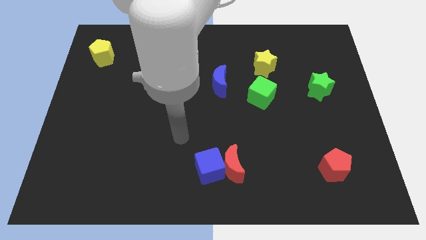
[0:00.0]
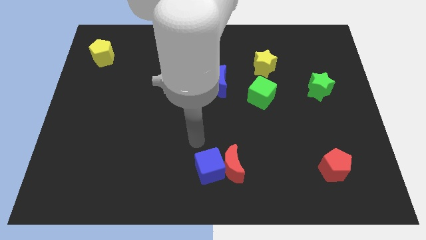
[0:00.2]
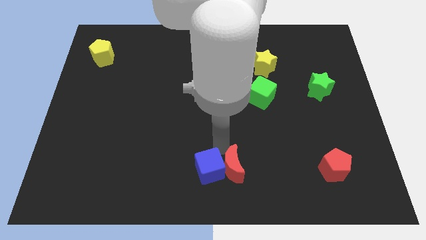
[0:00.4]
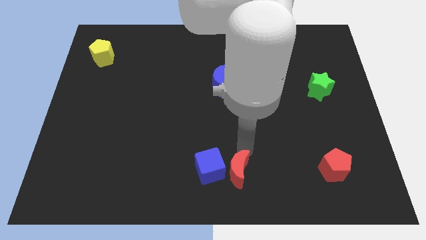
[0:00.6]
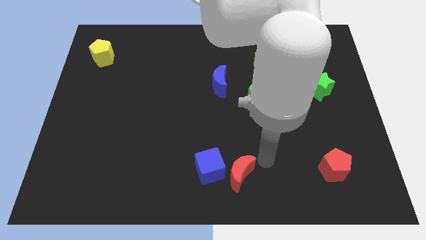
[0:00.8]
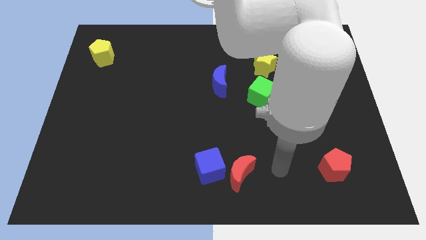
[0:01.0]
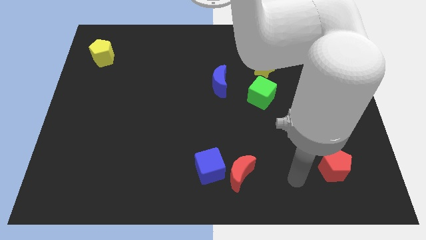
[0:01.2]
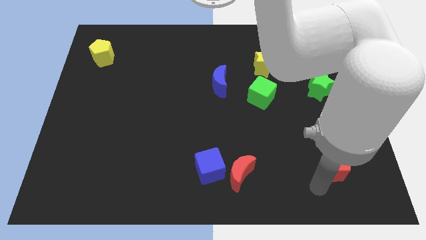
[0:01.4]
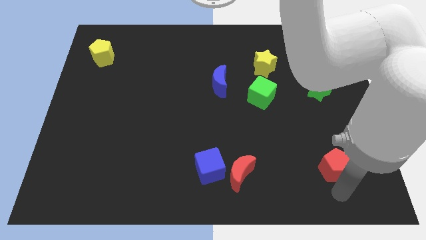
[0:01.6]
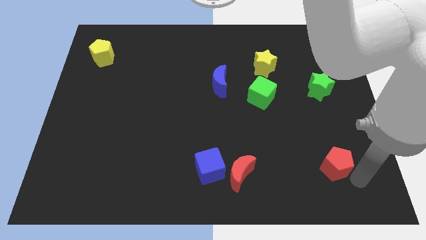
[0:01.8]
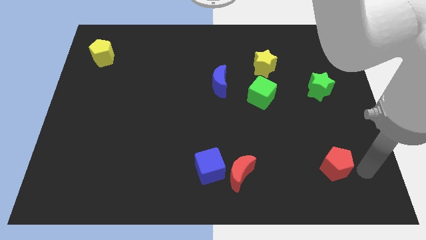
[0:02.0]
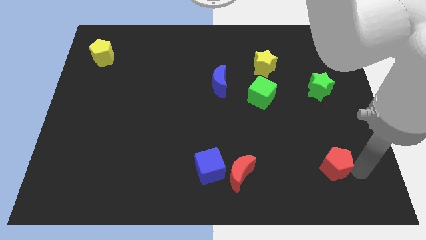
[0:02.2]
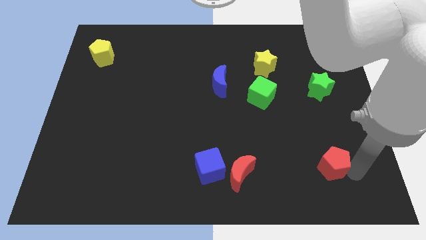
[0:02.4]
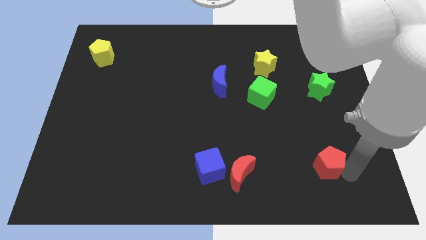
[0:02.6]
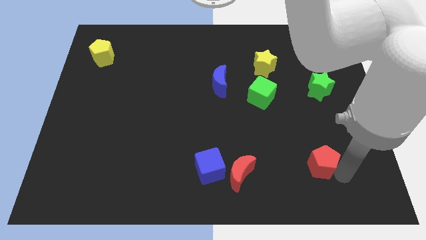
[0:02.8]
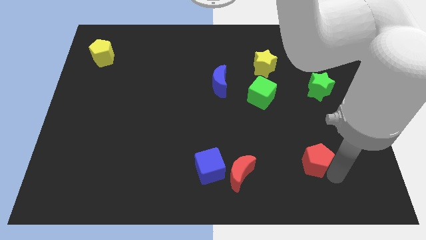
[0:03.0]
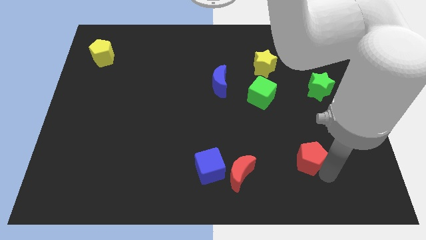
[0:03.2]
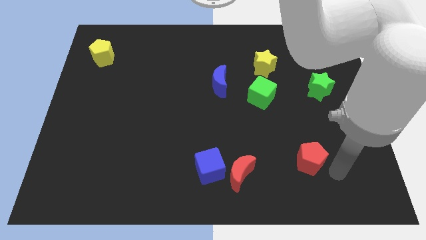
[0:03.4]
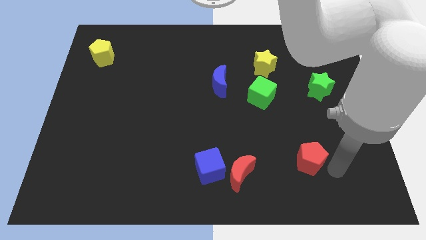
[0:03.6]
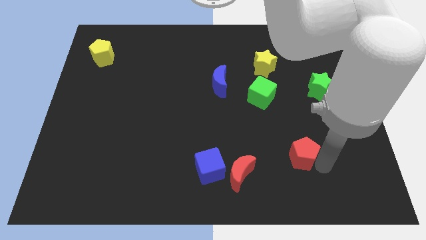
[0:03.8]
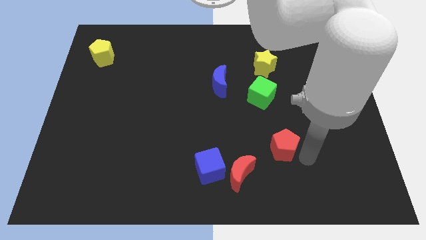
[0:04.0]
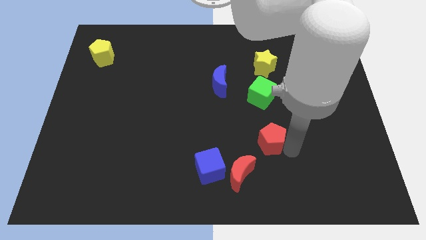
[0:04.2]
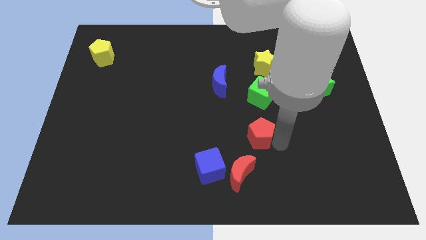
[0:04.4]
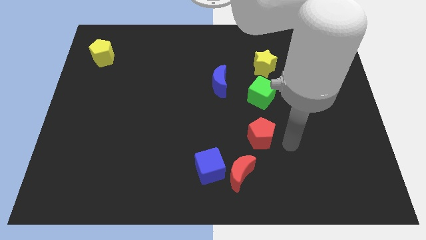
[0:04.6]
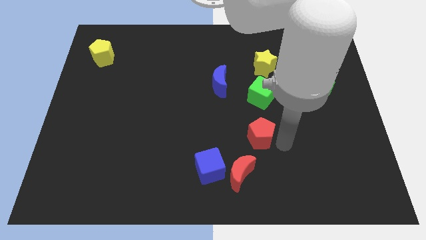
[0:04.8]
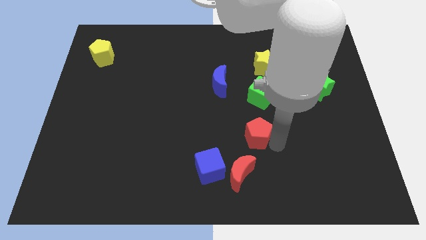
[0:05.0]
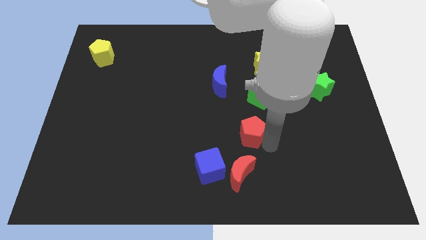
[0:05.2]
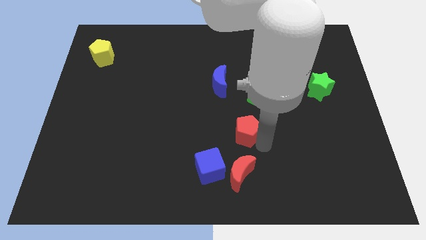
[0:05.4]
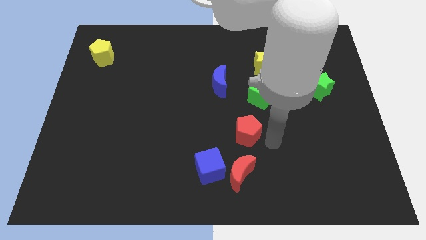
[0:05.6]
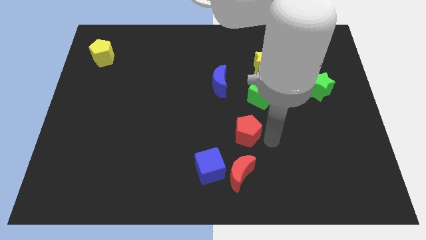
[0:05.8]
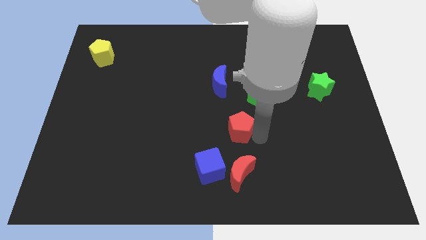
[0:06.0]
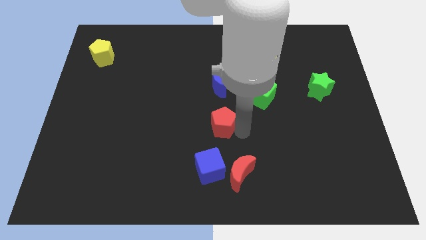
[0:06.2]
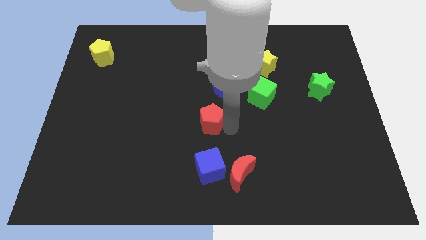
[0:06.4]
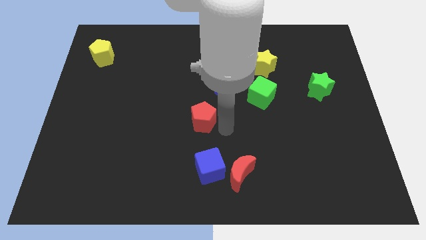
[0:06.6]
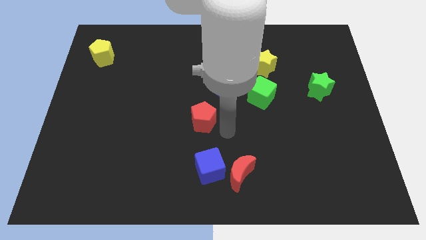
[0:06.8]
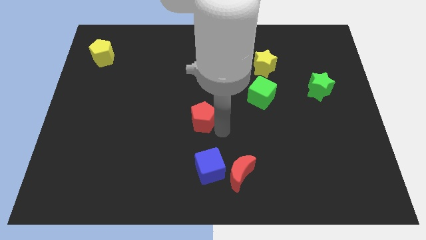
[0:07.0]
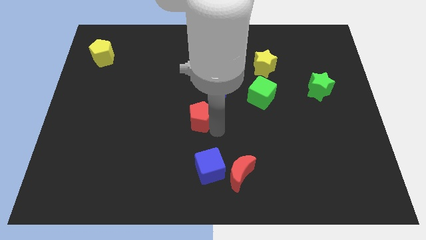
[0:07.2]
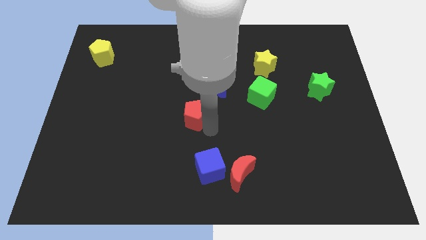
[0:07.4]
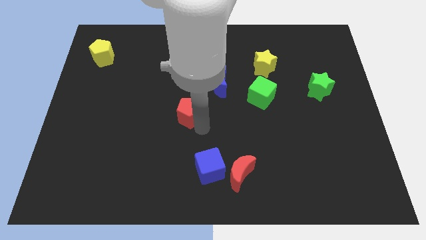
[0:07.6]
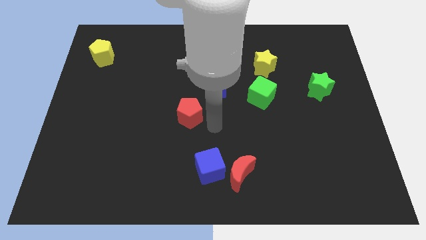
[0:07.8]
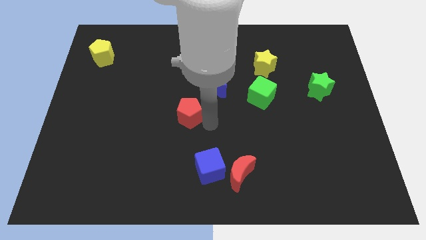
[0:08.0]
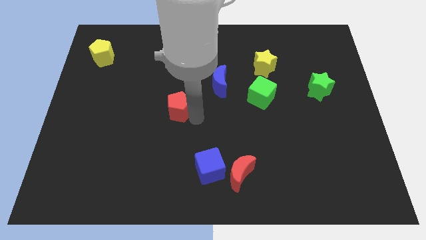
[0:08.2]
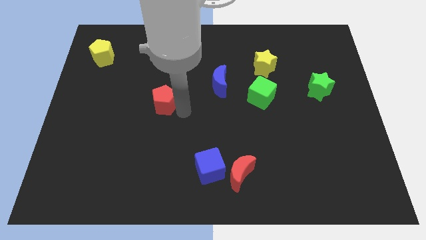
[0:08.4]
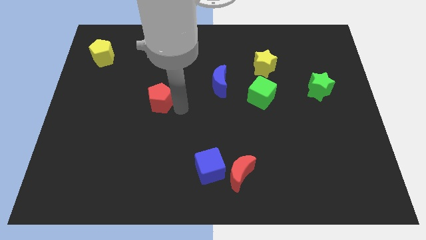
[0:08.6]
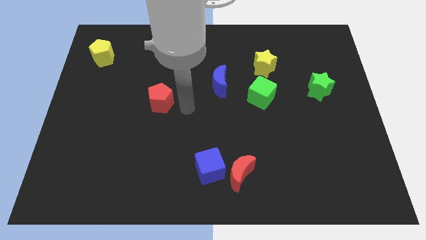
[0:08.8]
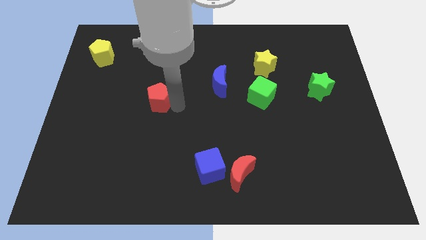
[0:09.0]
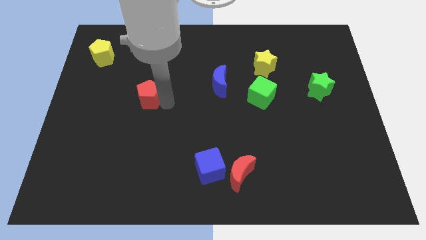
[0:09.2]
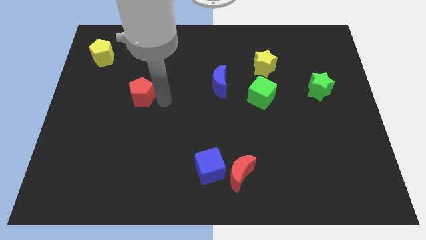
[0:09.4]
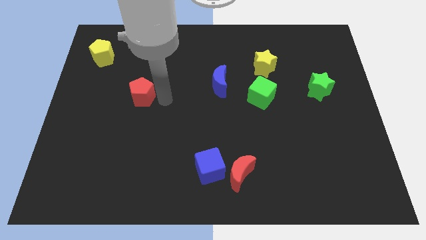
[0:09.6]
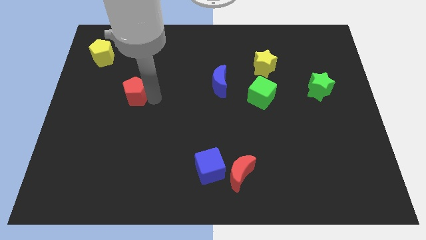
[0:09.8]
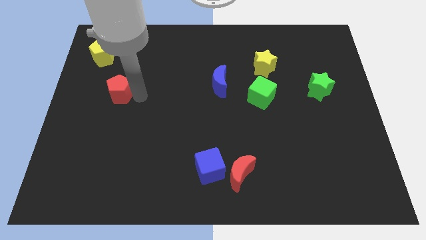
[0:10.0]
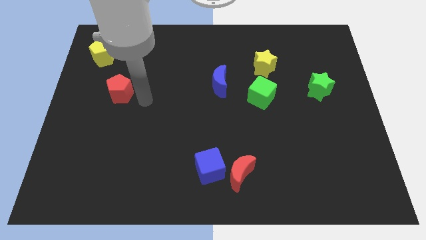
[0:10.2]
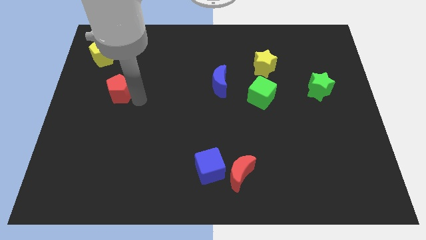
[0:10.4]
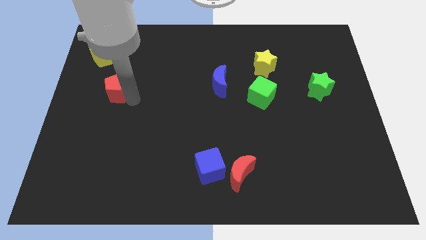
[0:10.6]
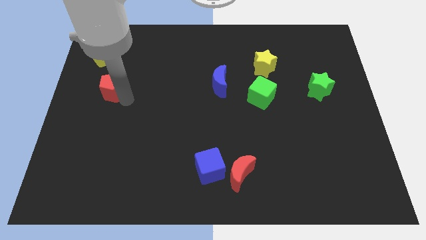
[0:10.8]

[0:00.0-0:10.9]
slide the red pentagon below the yellow pentagon

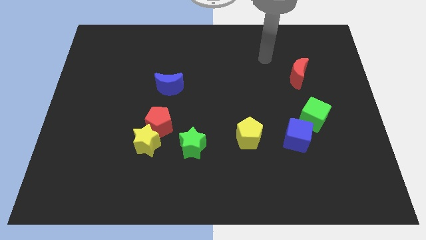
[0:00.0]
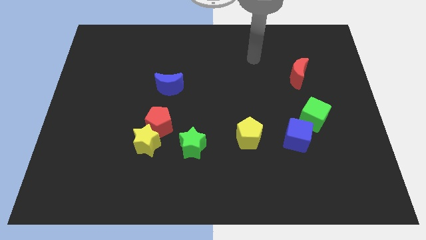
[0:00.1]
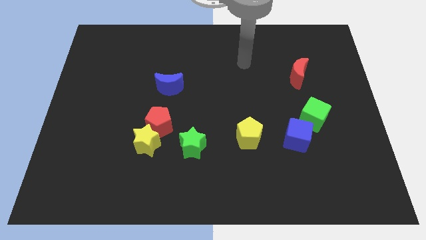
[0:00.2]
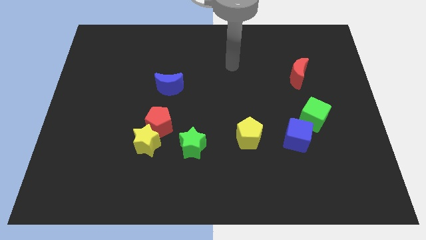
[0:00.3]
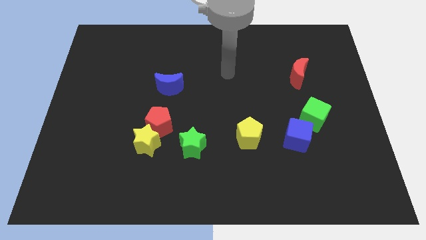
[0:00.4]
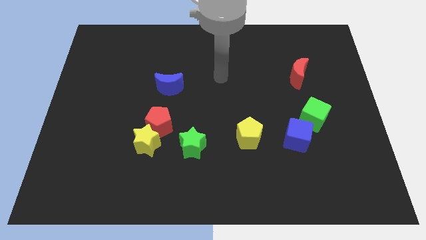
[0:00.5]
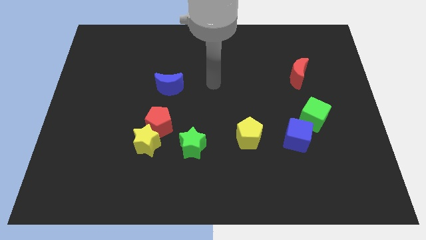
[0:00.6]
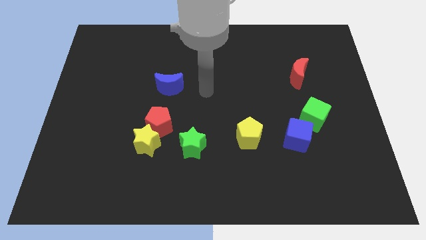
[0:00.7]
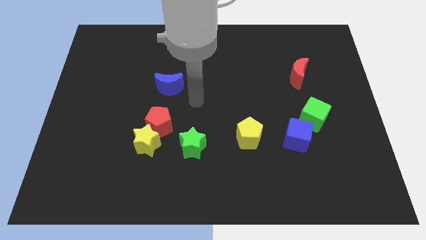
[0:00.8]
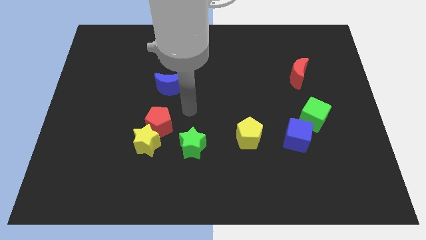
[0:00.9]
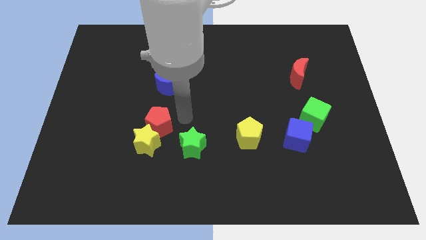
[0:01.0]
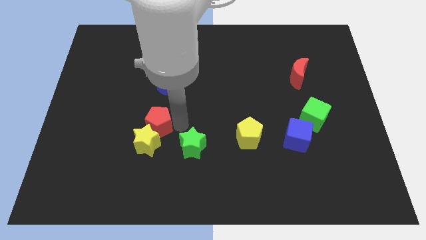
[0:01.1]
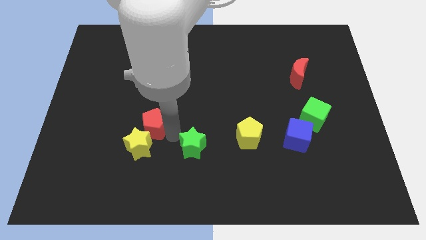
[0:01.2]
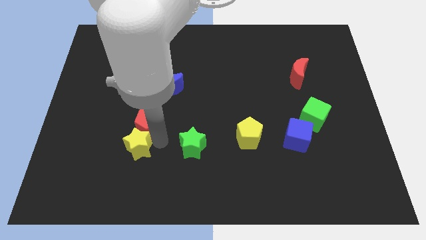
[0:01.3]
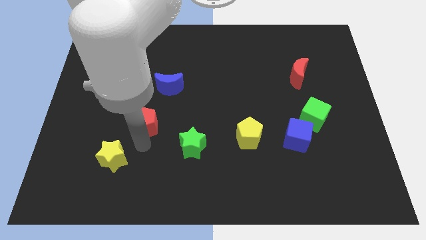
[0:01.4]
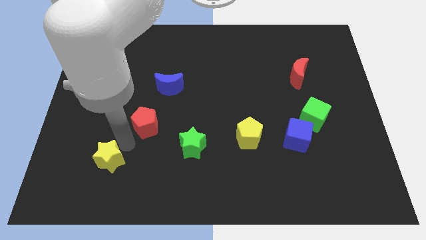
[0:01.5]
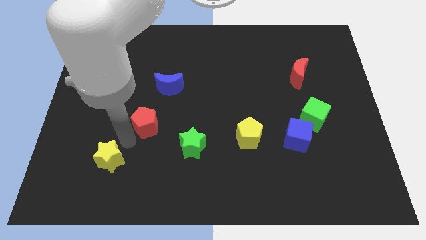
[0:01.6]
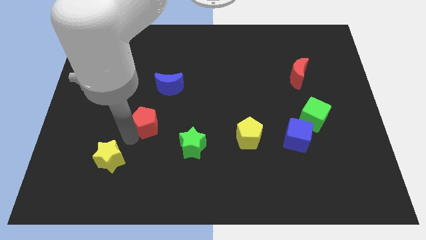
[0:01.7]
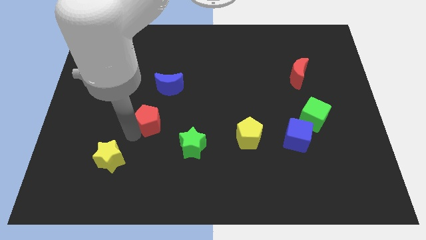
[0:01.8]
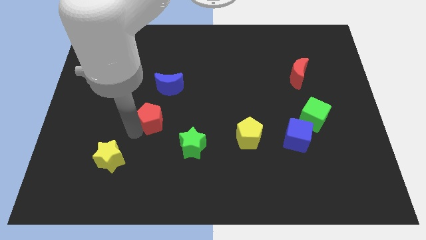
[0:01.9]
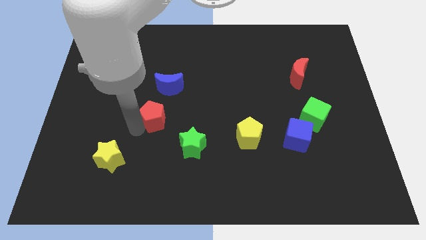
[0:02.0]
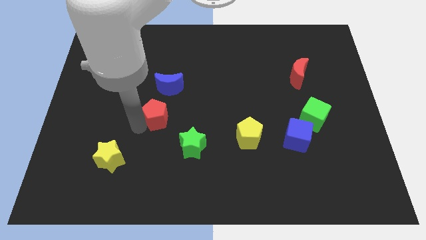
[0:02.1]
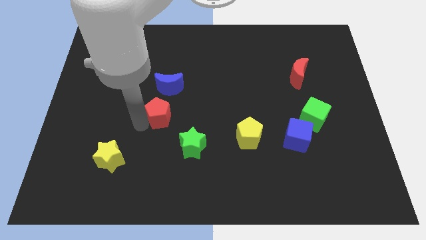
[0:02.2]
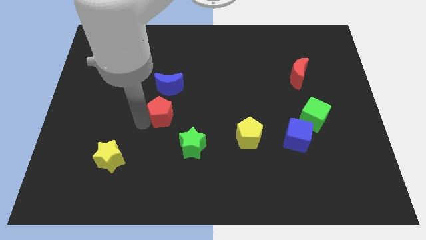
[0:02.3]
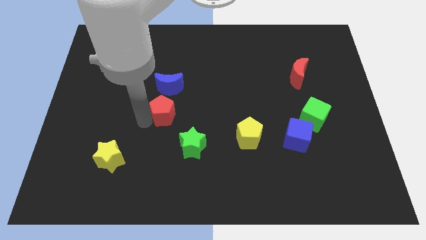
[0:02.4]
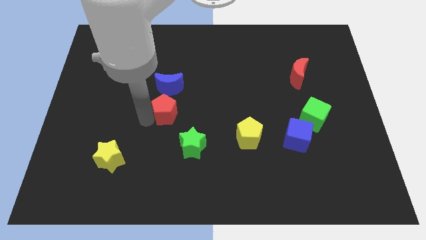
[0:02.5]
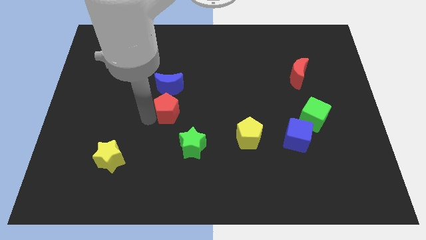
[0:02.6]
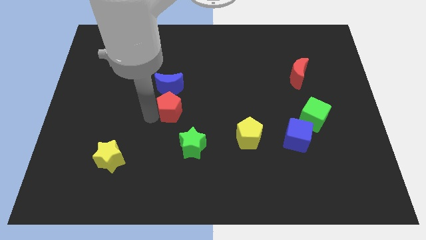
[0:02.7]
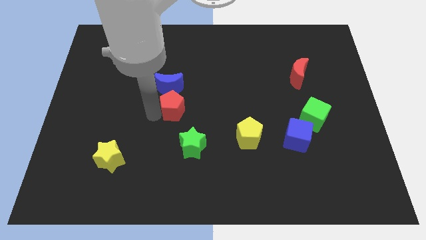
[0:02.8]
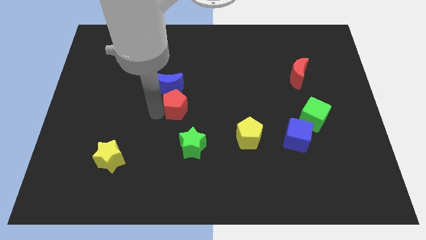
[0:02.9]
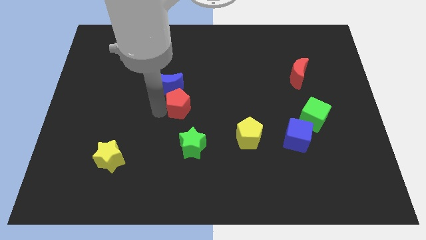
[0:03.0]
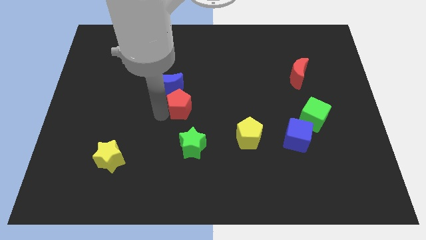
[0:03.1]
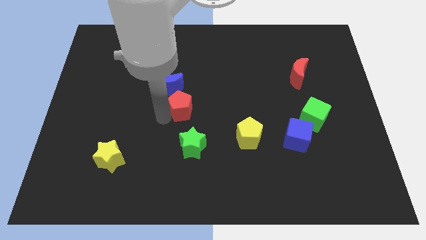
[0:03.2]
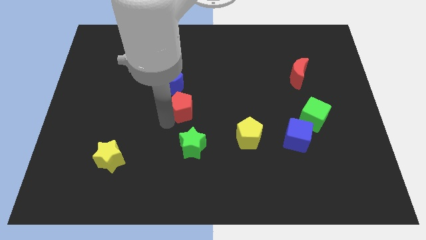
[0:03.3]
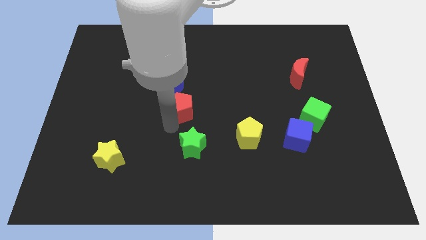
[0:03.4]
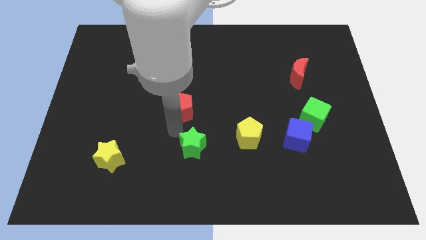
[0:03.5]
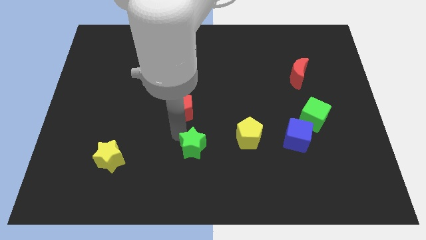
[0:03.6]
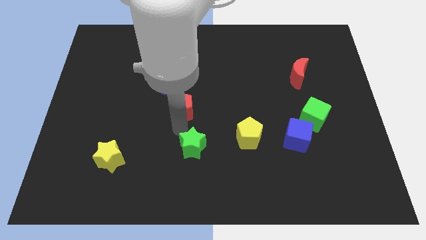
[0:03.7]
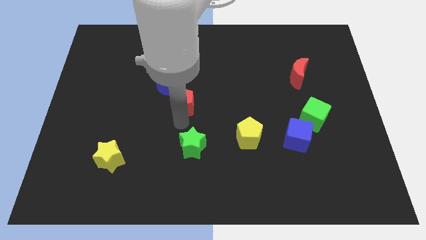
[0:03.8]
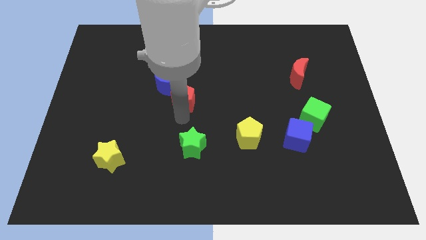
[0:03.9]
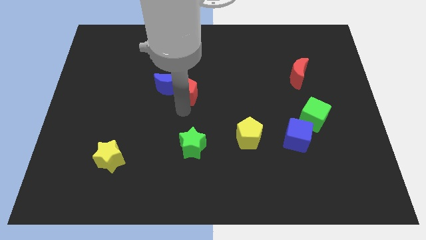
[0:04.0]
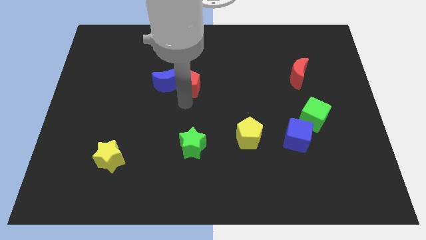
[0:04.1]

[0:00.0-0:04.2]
push the red pentagon diagonally up and to the right of the blue moon
